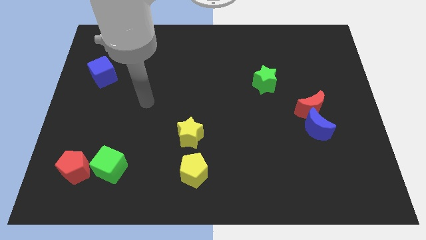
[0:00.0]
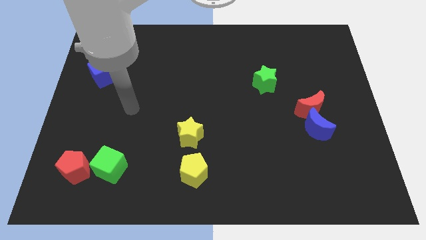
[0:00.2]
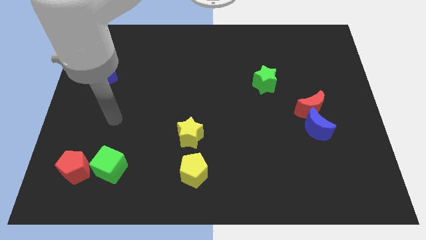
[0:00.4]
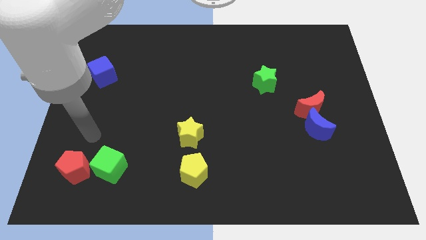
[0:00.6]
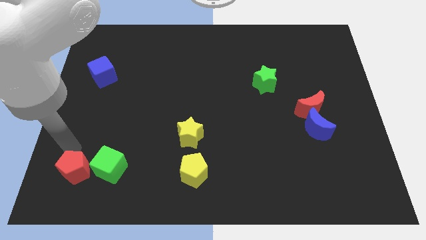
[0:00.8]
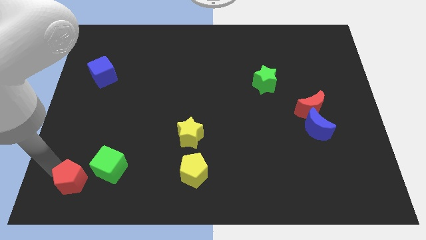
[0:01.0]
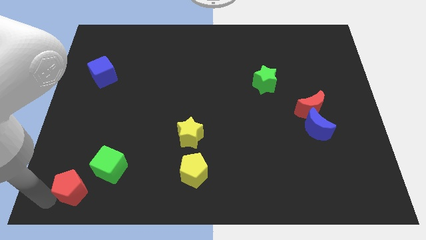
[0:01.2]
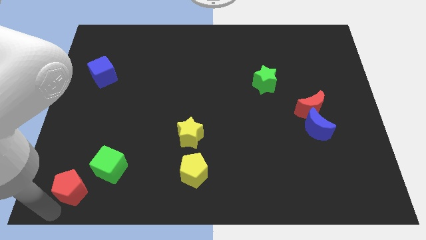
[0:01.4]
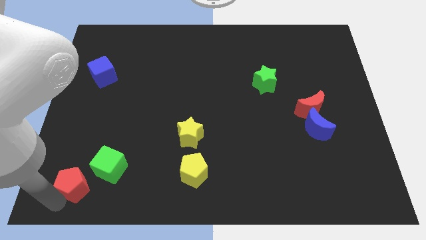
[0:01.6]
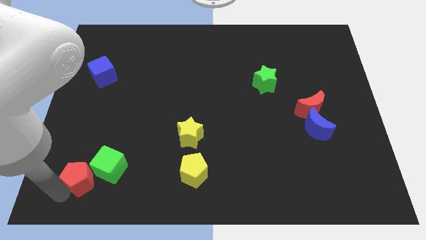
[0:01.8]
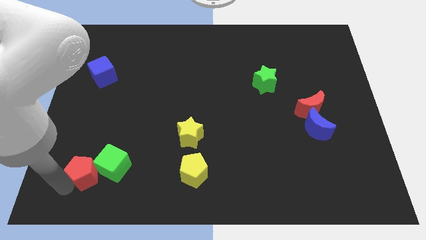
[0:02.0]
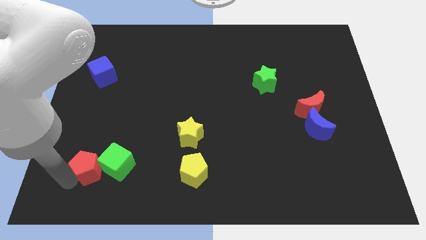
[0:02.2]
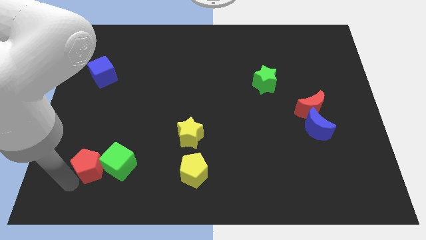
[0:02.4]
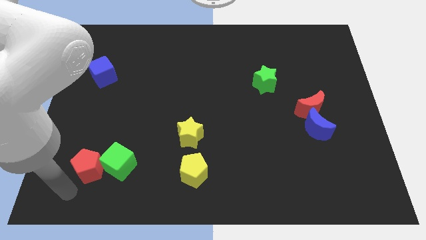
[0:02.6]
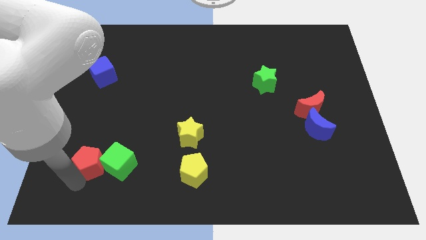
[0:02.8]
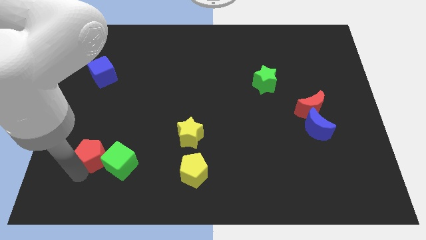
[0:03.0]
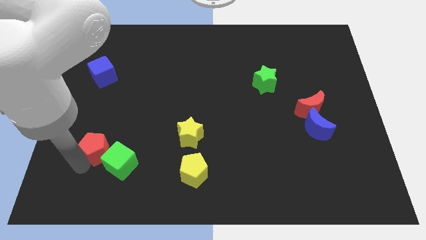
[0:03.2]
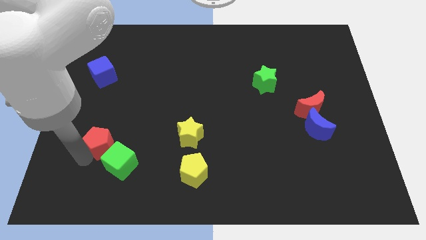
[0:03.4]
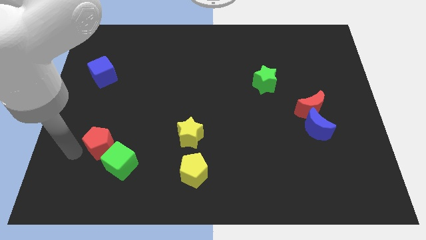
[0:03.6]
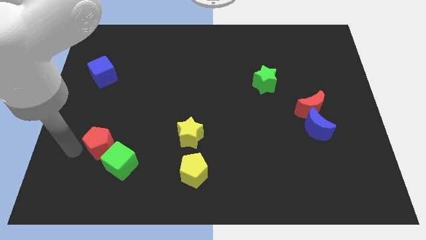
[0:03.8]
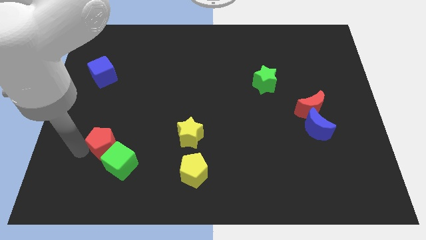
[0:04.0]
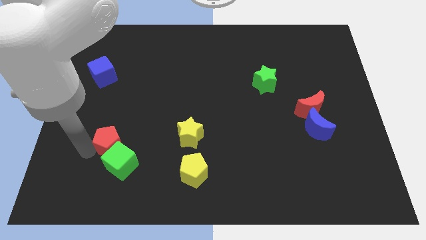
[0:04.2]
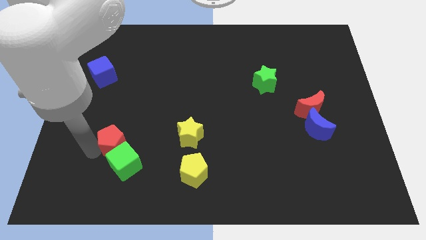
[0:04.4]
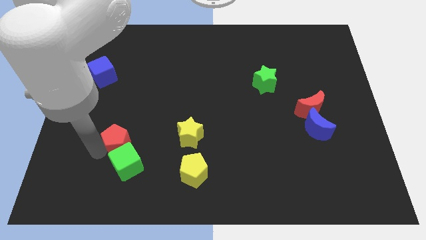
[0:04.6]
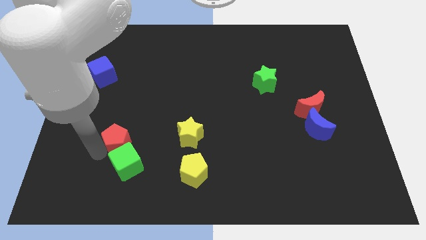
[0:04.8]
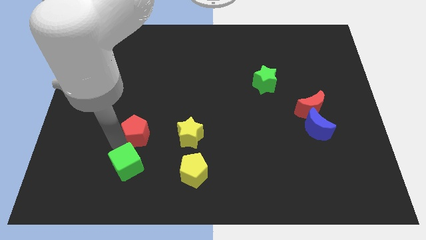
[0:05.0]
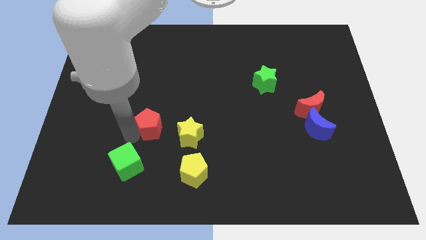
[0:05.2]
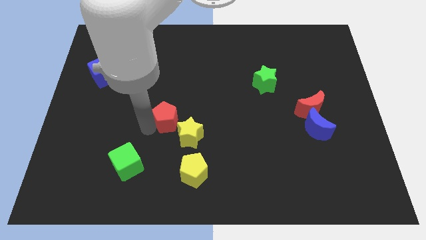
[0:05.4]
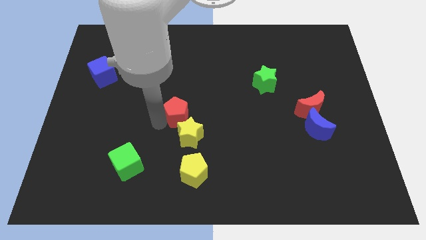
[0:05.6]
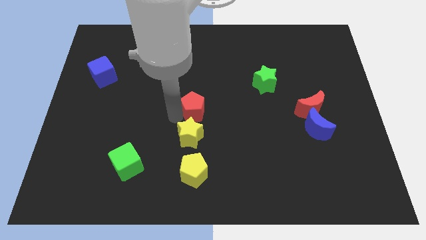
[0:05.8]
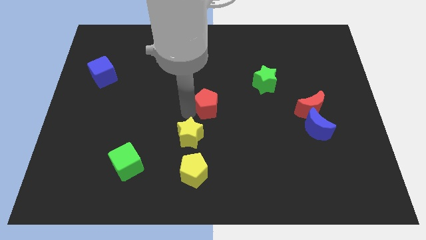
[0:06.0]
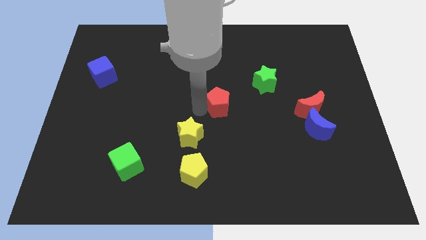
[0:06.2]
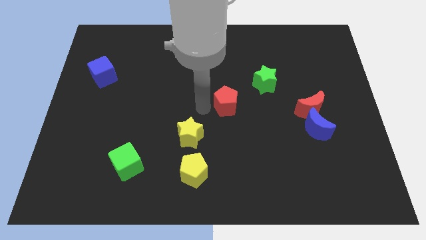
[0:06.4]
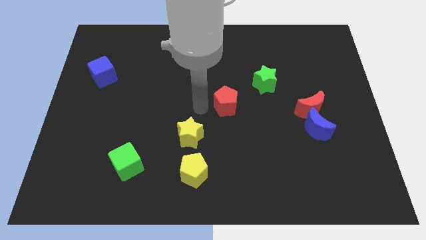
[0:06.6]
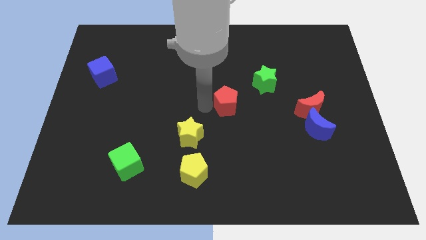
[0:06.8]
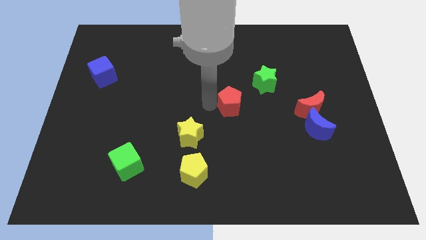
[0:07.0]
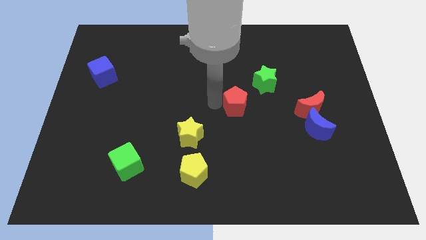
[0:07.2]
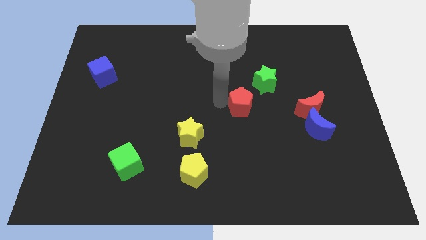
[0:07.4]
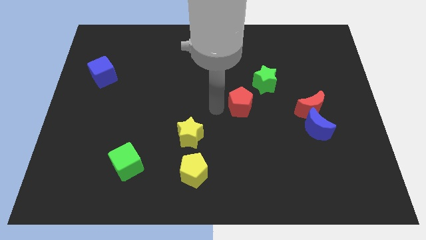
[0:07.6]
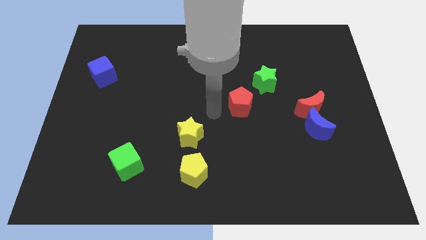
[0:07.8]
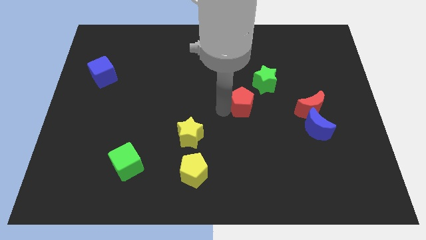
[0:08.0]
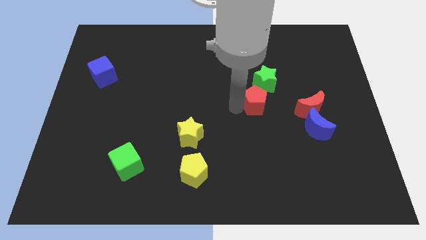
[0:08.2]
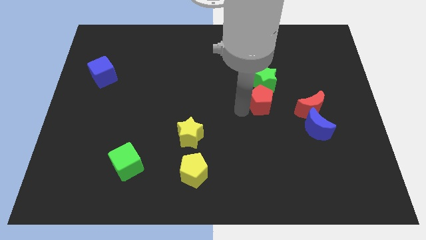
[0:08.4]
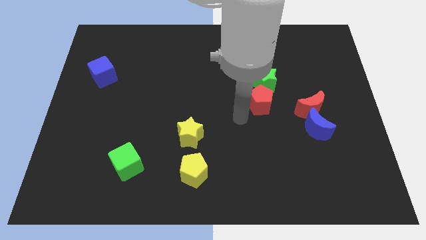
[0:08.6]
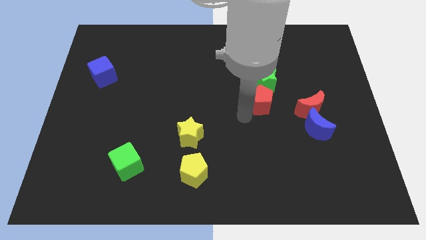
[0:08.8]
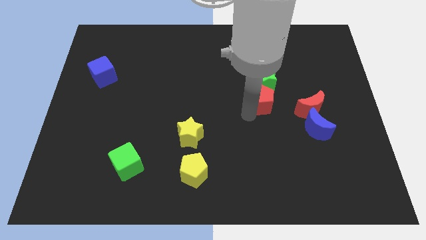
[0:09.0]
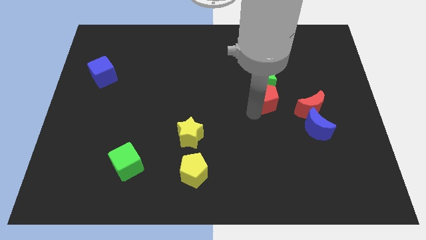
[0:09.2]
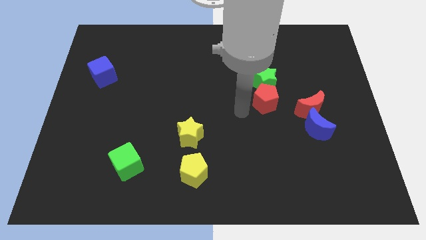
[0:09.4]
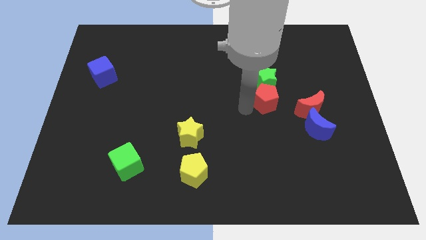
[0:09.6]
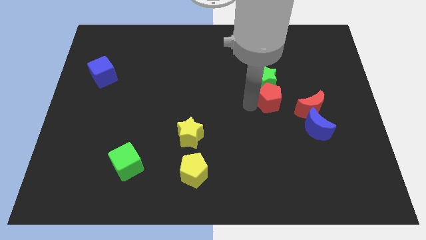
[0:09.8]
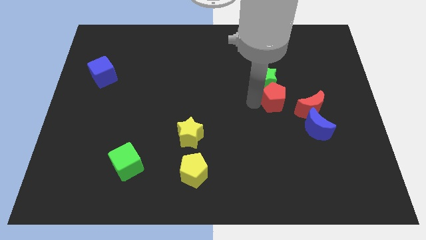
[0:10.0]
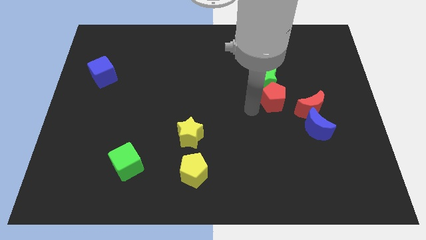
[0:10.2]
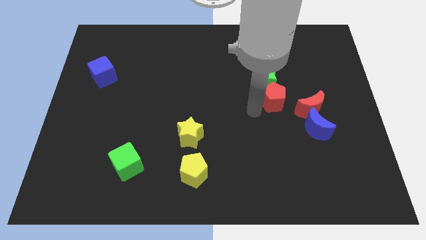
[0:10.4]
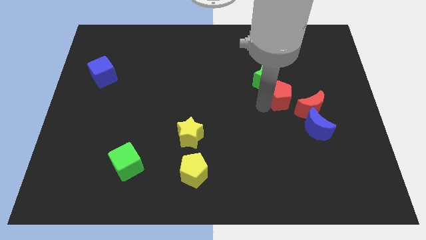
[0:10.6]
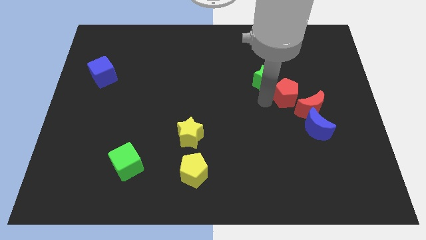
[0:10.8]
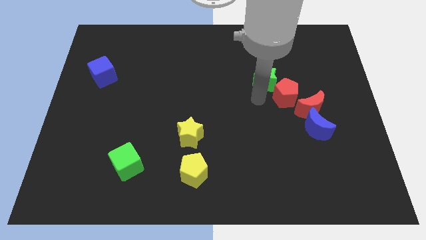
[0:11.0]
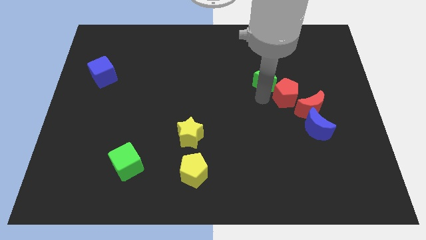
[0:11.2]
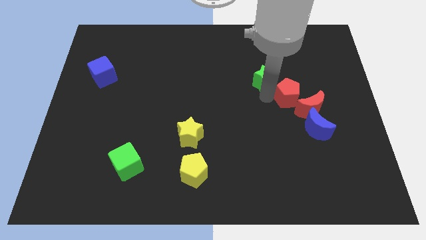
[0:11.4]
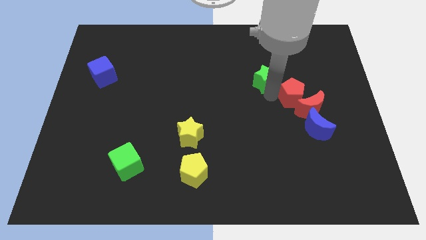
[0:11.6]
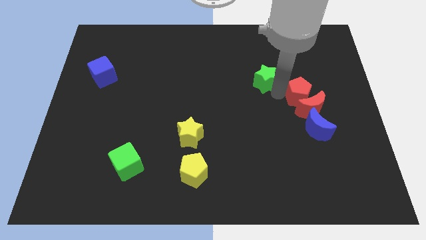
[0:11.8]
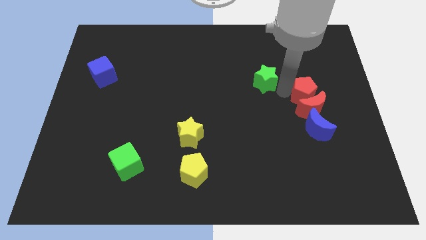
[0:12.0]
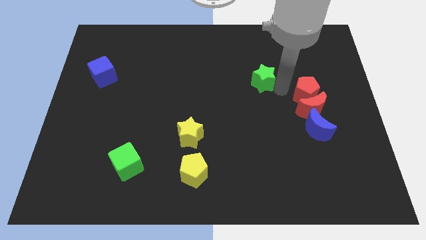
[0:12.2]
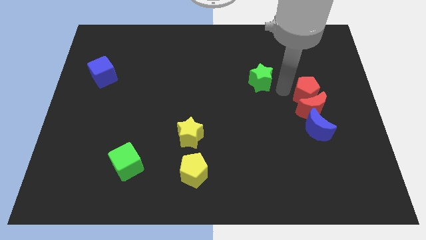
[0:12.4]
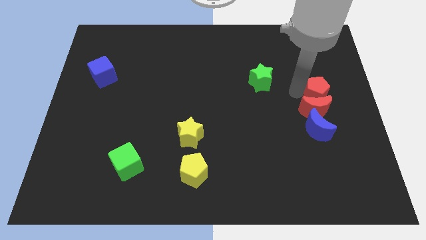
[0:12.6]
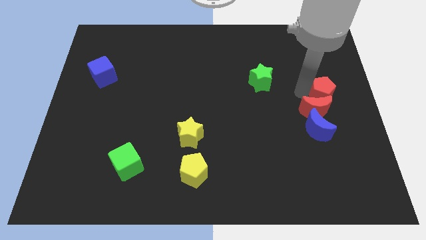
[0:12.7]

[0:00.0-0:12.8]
move the red pentagon to the right side of the board
